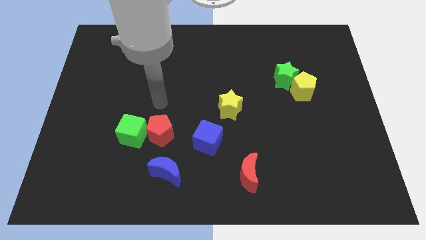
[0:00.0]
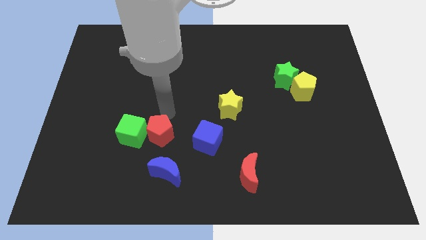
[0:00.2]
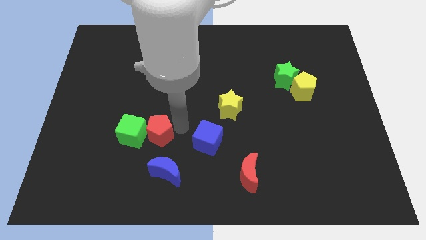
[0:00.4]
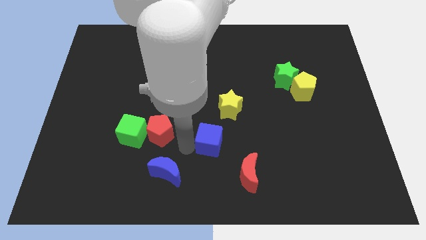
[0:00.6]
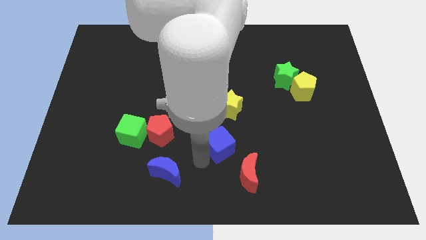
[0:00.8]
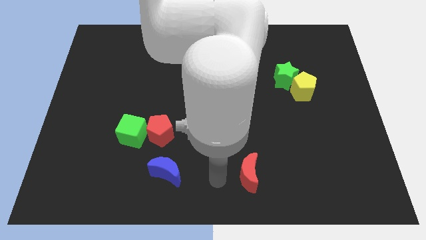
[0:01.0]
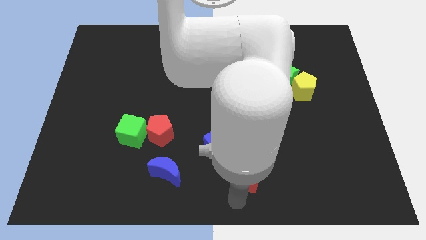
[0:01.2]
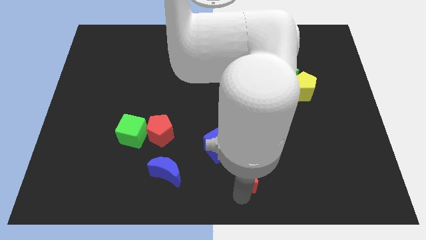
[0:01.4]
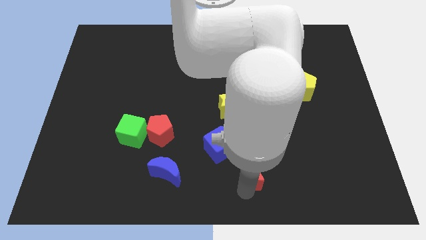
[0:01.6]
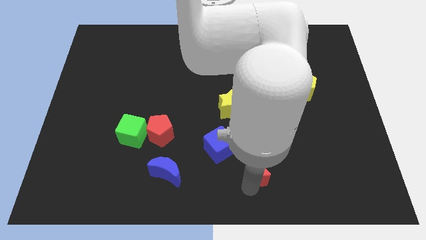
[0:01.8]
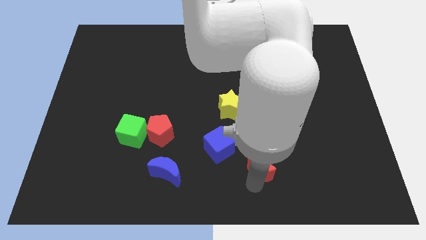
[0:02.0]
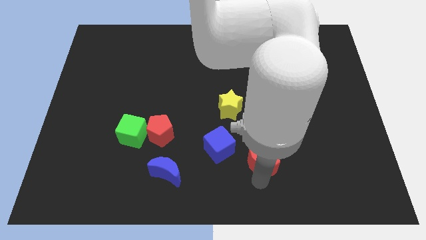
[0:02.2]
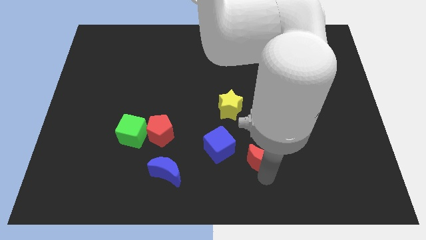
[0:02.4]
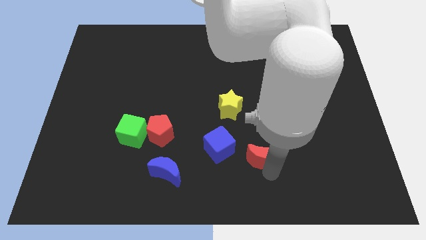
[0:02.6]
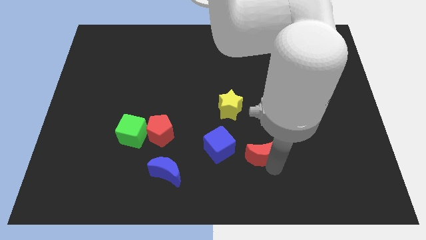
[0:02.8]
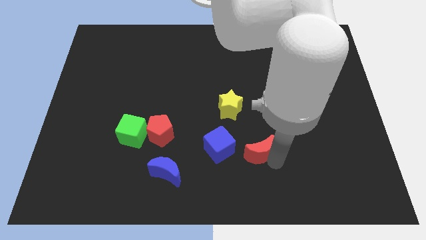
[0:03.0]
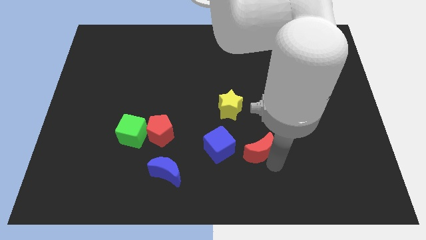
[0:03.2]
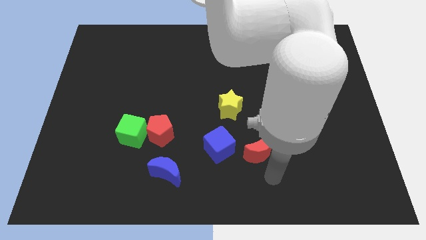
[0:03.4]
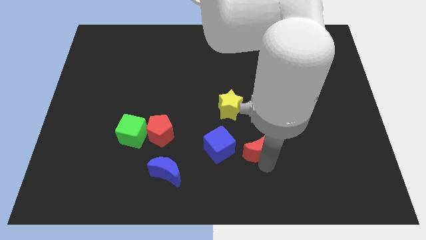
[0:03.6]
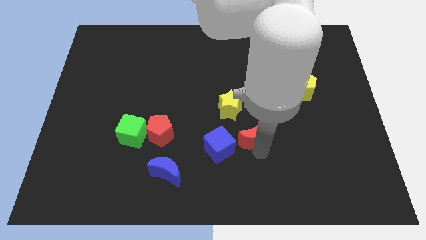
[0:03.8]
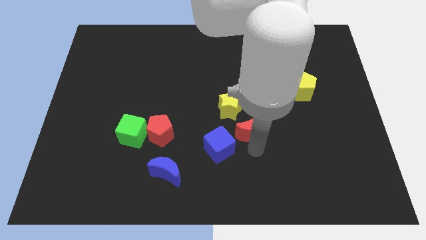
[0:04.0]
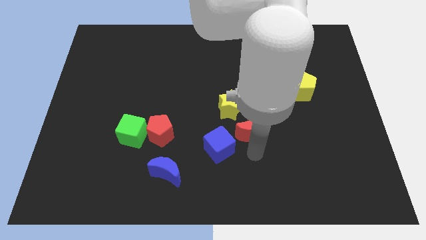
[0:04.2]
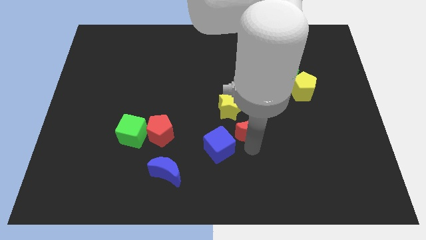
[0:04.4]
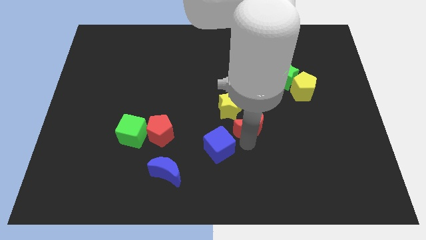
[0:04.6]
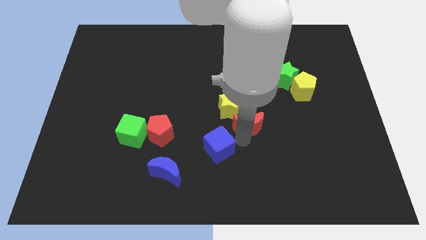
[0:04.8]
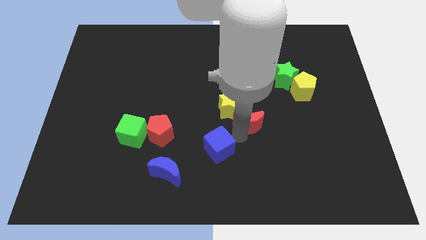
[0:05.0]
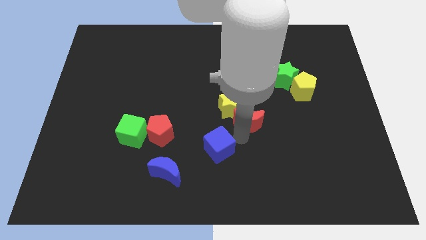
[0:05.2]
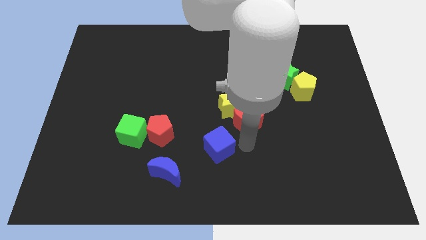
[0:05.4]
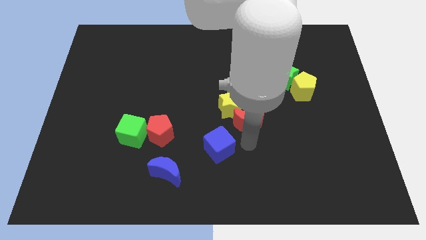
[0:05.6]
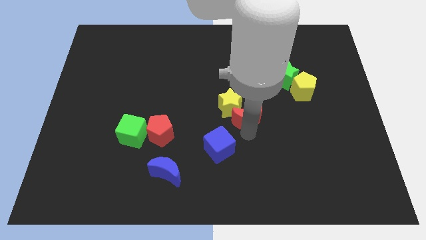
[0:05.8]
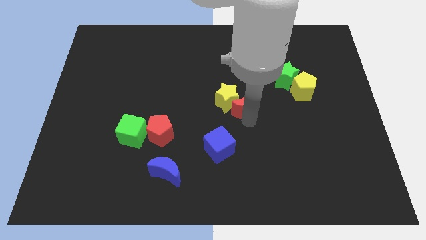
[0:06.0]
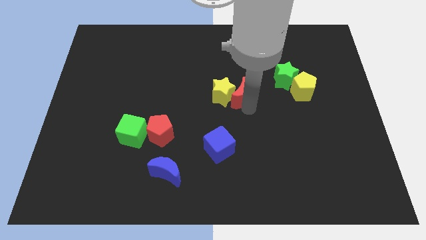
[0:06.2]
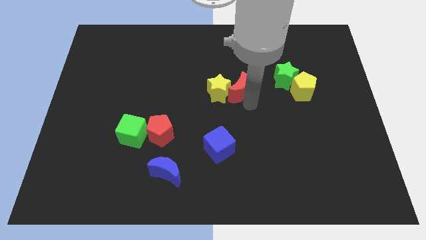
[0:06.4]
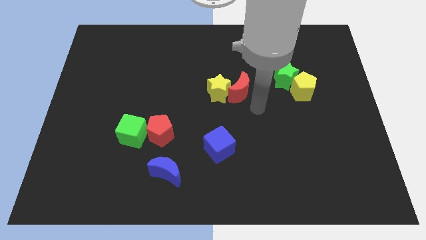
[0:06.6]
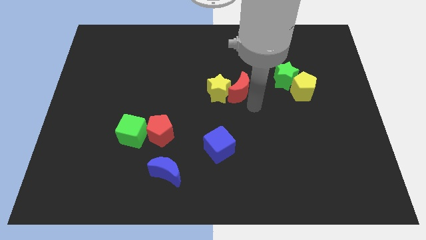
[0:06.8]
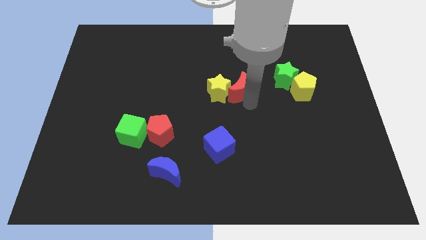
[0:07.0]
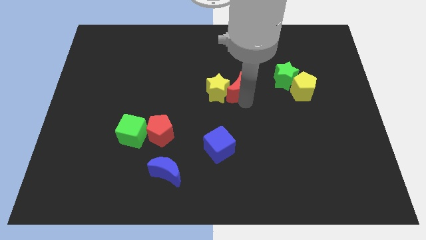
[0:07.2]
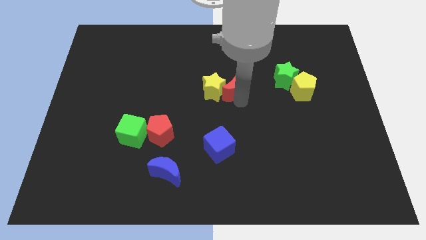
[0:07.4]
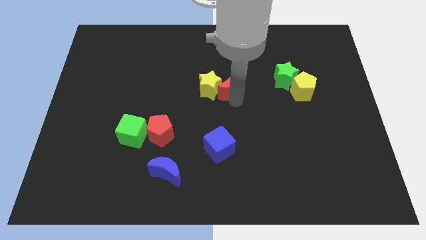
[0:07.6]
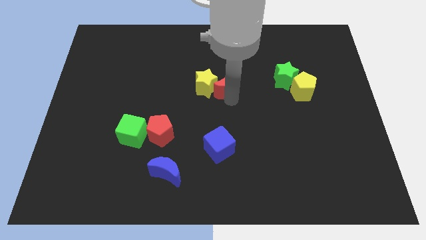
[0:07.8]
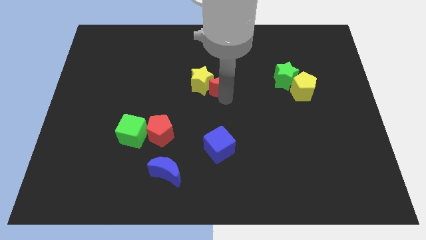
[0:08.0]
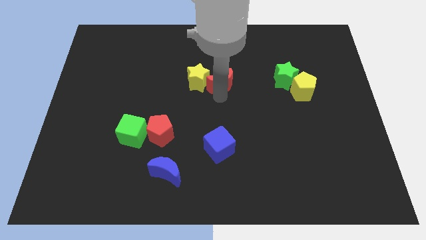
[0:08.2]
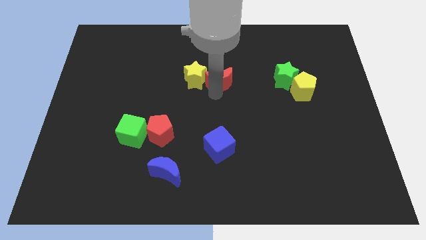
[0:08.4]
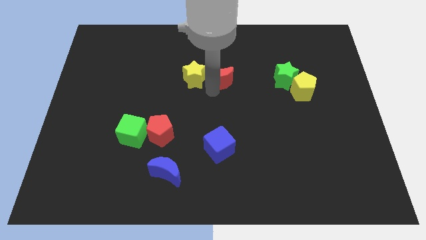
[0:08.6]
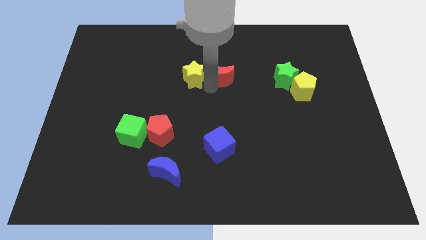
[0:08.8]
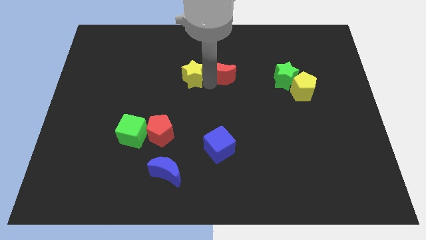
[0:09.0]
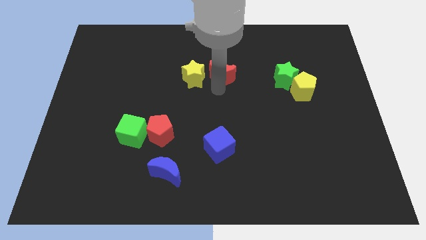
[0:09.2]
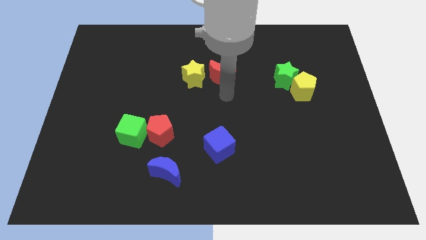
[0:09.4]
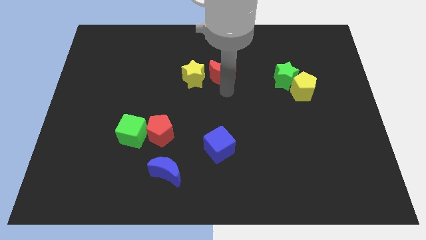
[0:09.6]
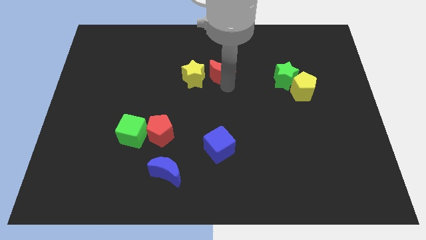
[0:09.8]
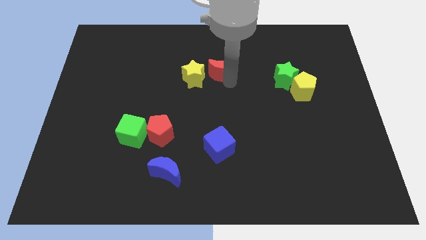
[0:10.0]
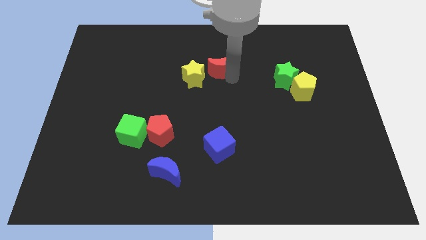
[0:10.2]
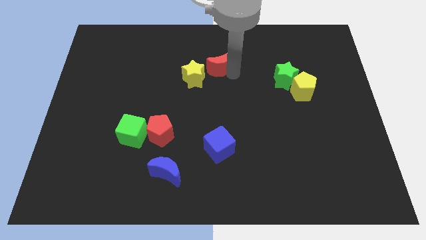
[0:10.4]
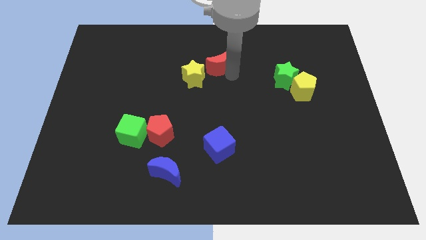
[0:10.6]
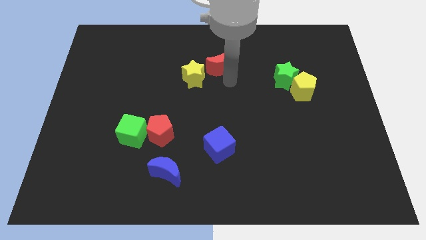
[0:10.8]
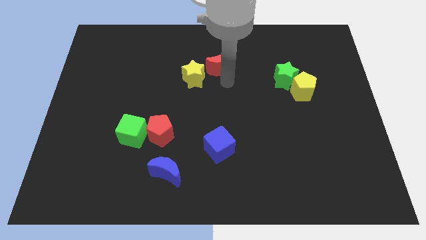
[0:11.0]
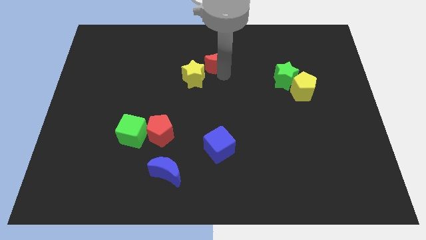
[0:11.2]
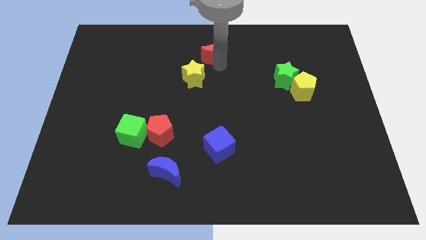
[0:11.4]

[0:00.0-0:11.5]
move the red moon to the top

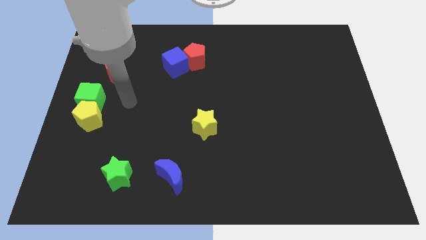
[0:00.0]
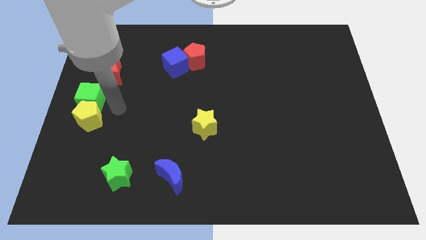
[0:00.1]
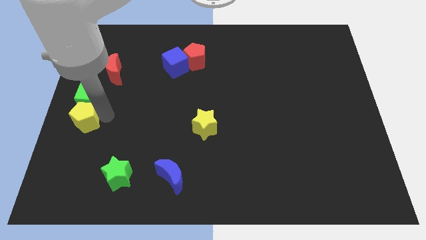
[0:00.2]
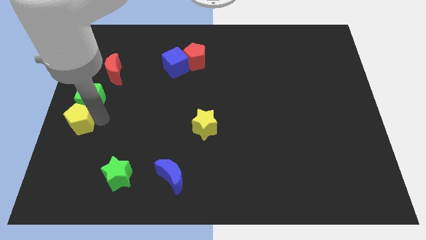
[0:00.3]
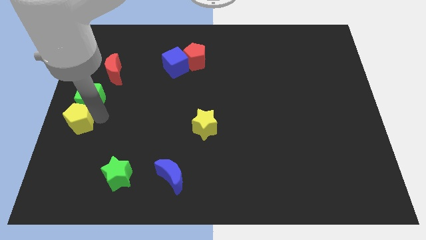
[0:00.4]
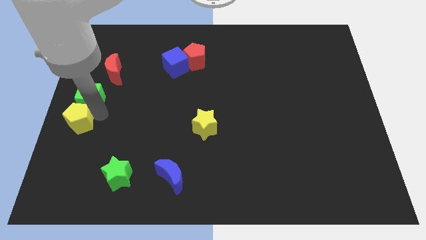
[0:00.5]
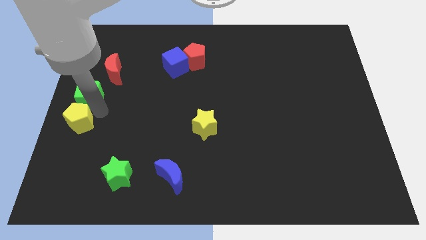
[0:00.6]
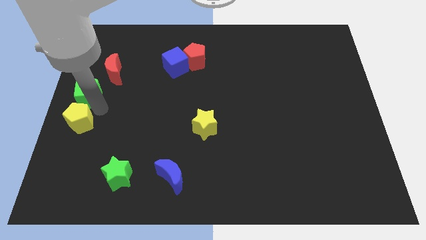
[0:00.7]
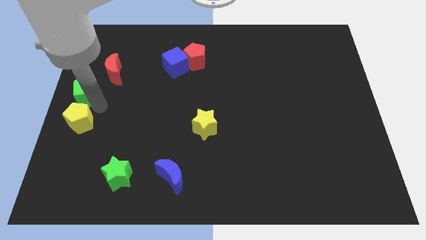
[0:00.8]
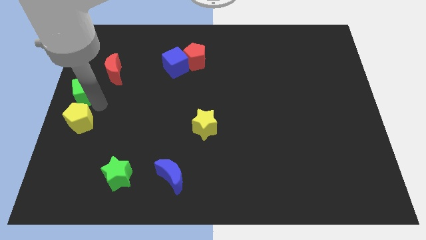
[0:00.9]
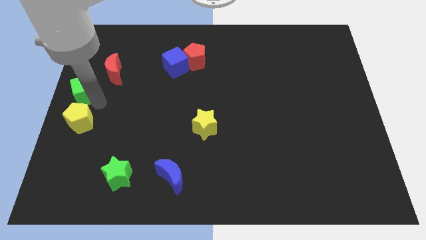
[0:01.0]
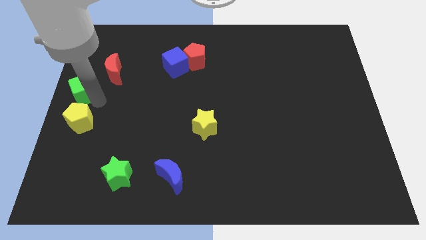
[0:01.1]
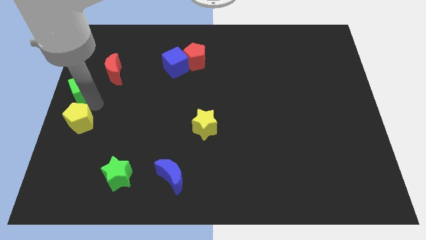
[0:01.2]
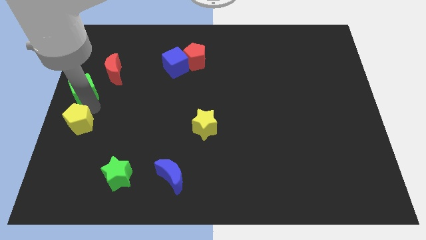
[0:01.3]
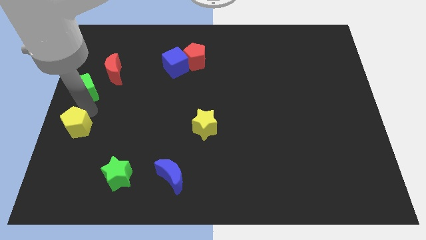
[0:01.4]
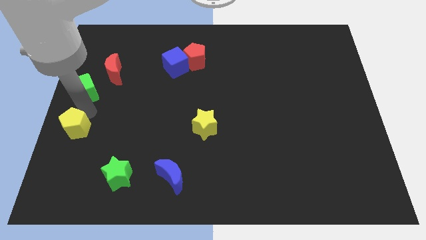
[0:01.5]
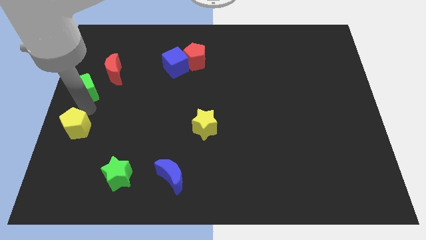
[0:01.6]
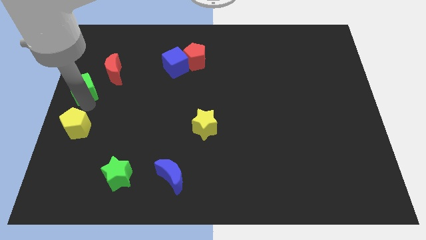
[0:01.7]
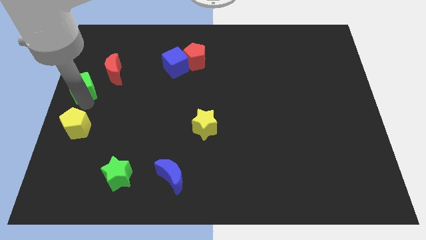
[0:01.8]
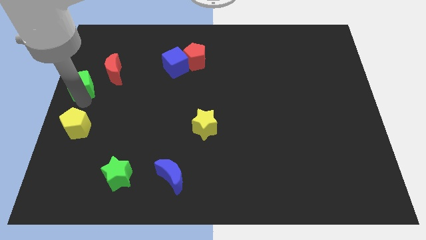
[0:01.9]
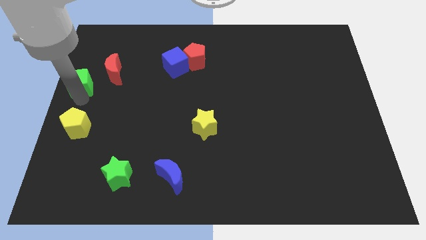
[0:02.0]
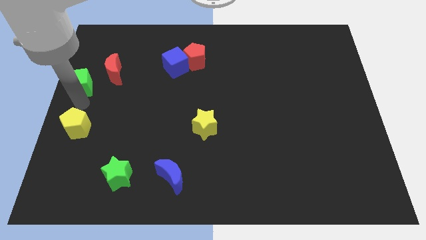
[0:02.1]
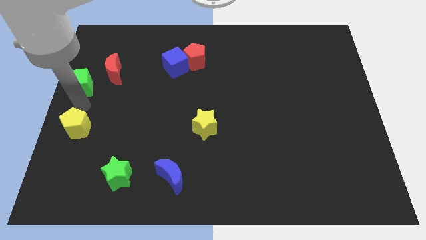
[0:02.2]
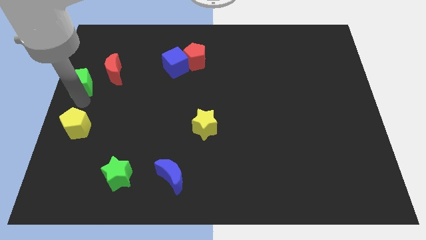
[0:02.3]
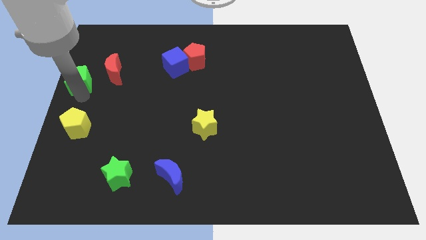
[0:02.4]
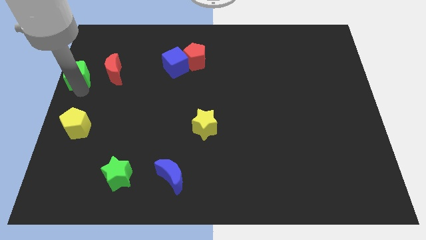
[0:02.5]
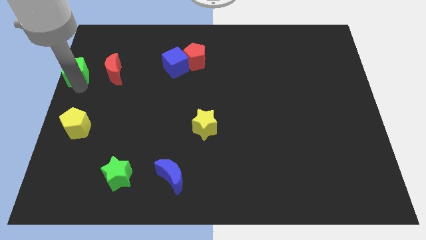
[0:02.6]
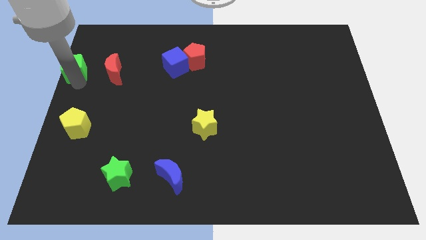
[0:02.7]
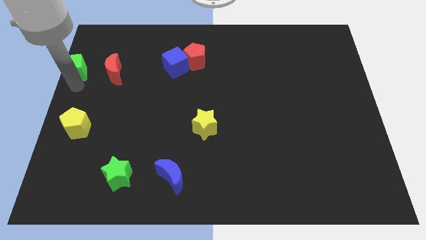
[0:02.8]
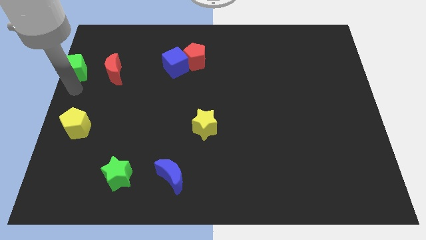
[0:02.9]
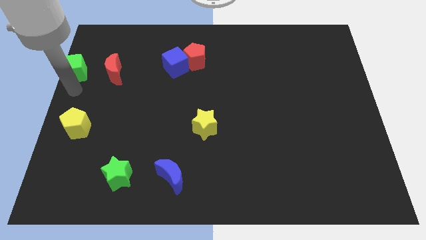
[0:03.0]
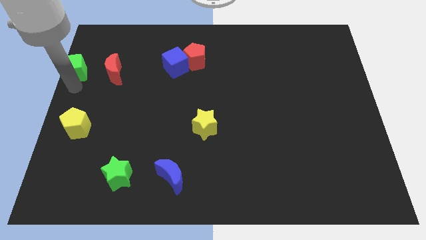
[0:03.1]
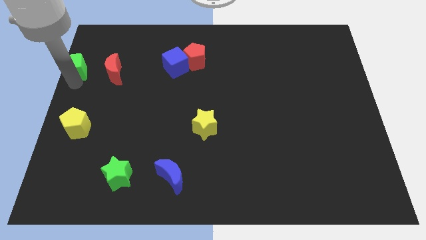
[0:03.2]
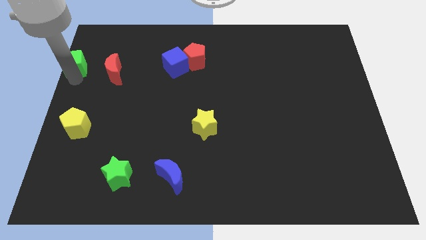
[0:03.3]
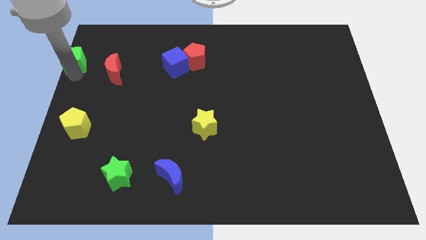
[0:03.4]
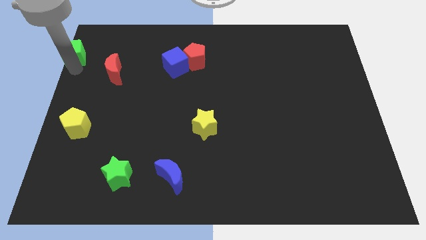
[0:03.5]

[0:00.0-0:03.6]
push the green cube to the top left of the board
